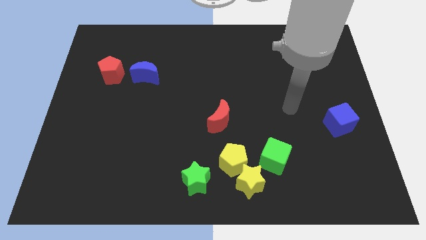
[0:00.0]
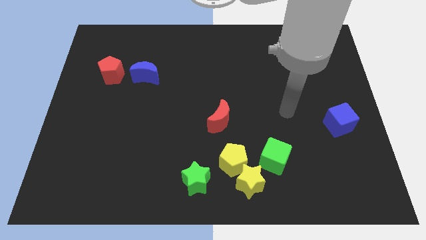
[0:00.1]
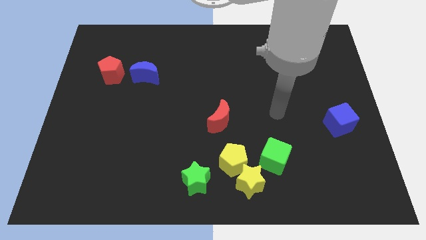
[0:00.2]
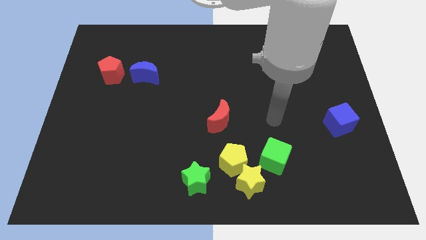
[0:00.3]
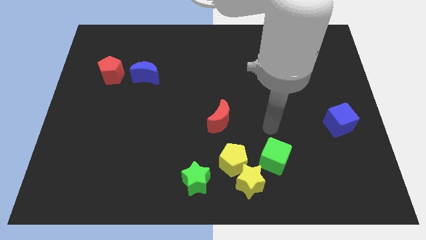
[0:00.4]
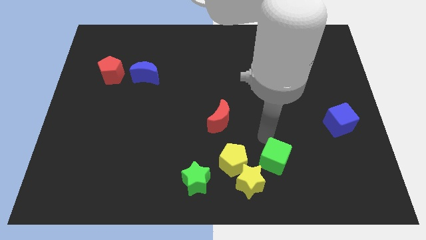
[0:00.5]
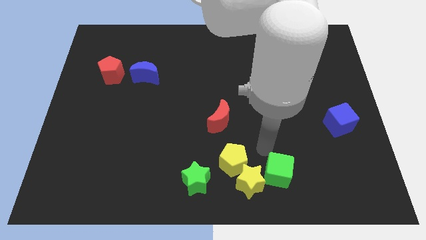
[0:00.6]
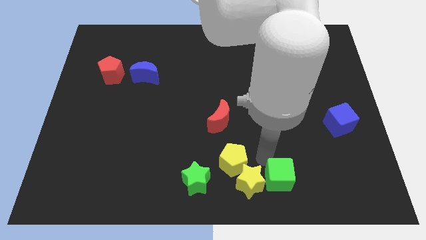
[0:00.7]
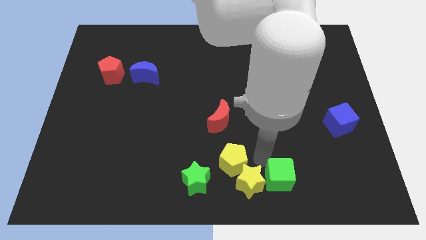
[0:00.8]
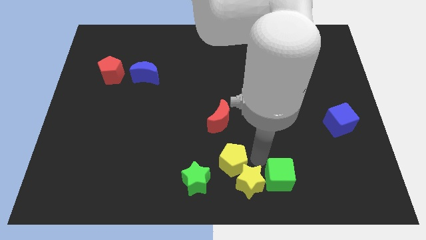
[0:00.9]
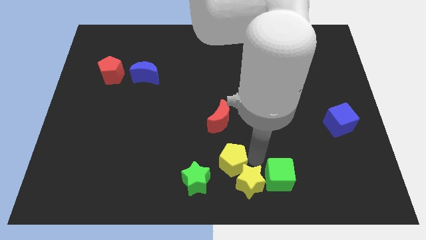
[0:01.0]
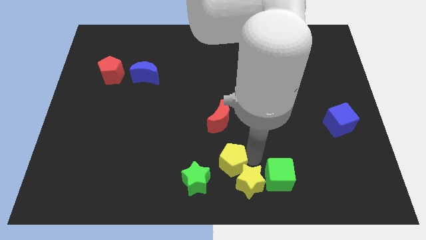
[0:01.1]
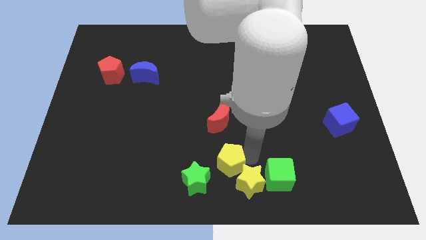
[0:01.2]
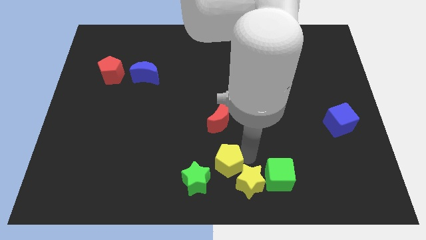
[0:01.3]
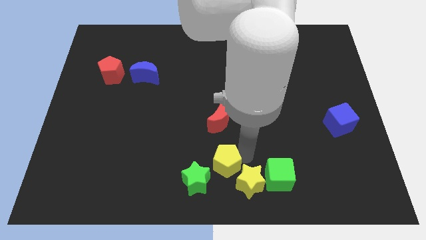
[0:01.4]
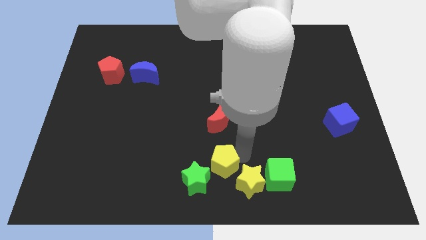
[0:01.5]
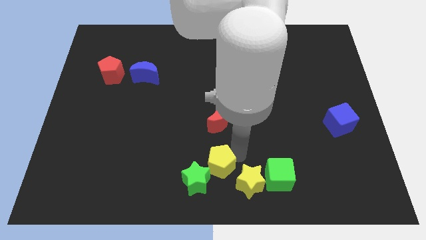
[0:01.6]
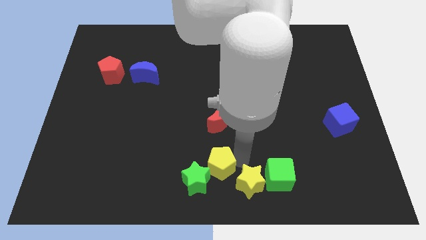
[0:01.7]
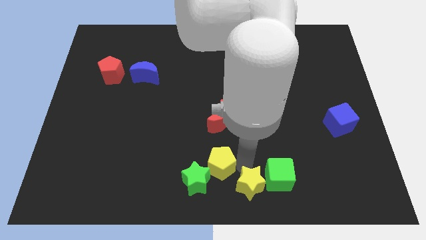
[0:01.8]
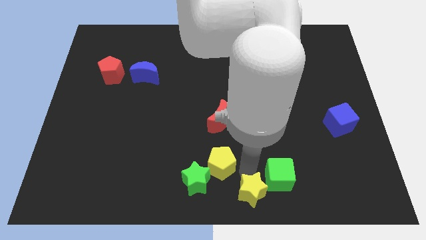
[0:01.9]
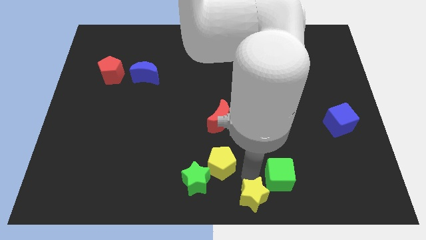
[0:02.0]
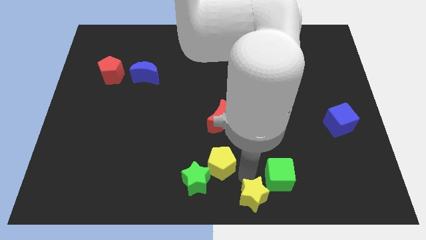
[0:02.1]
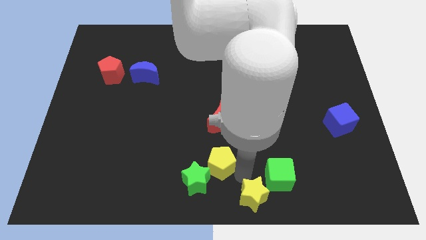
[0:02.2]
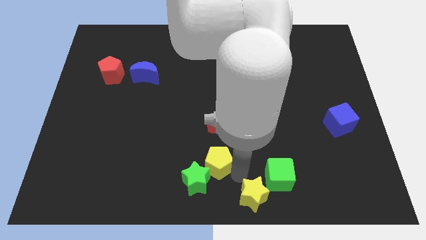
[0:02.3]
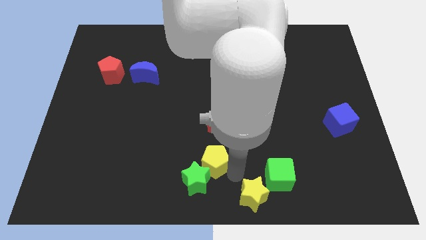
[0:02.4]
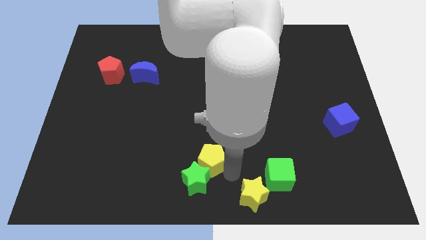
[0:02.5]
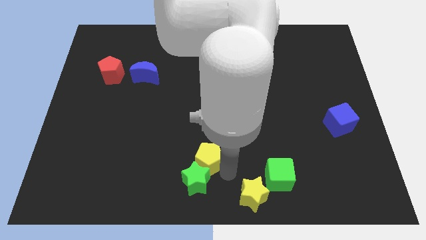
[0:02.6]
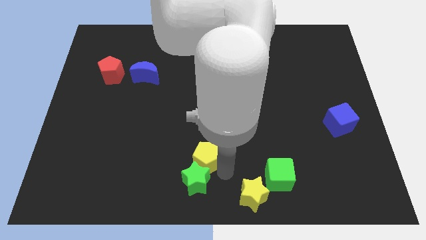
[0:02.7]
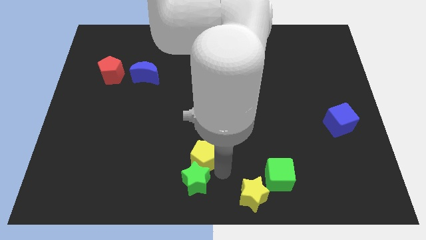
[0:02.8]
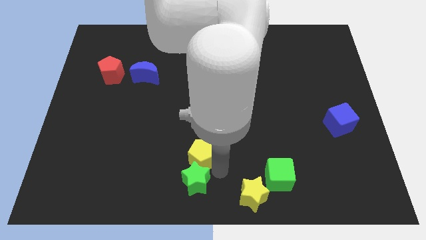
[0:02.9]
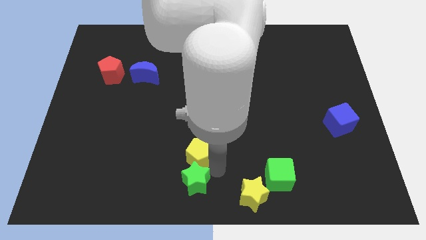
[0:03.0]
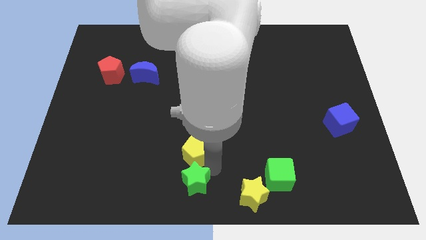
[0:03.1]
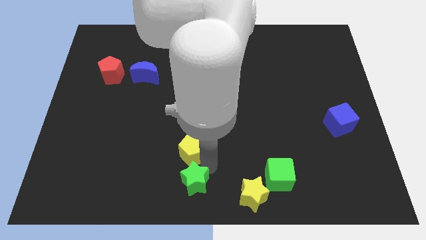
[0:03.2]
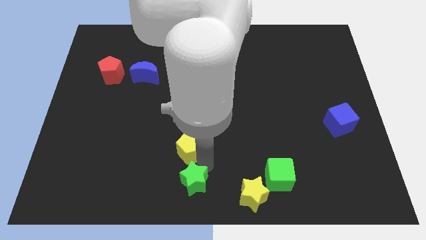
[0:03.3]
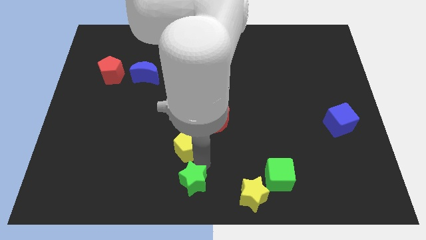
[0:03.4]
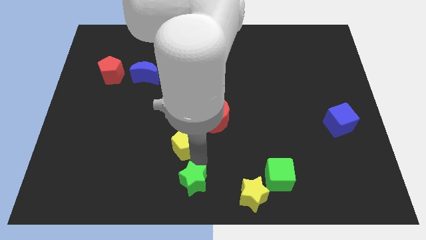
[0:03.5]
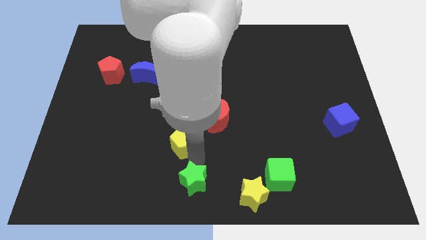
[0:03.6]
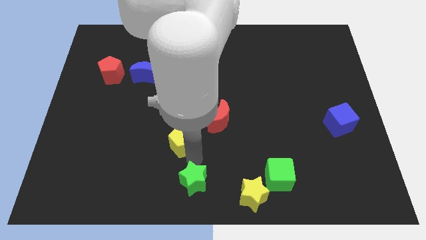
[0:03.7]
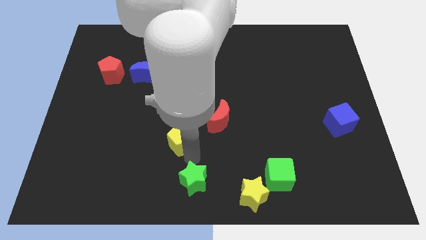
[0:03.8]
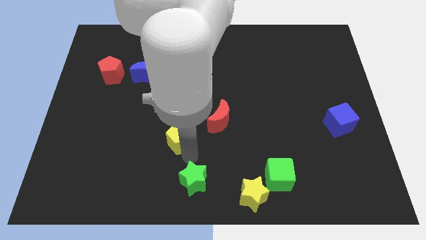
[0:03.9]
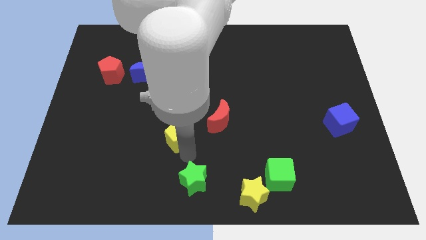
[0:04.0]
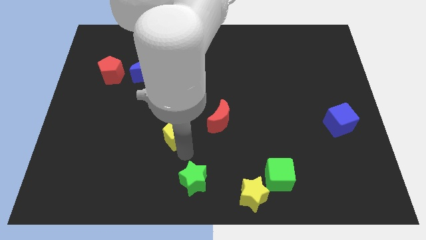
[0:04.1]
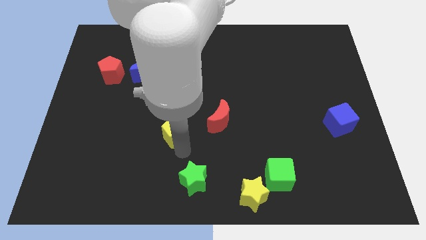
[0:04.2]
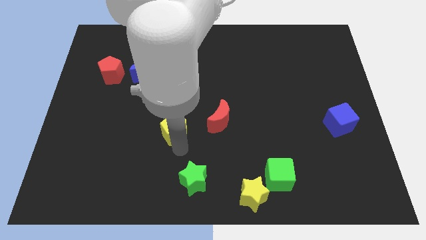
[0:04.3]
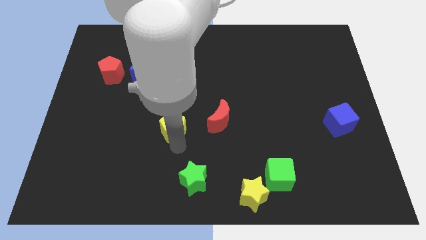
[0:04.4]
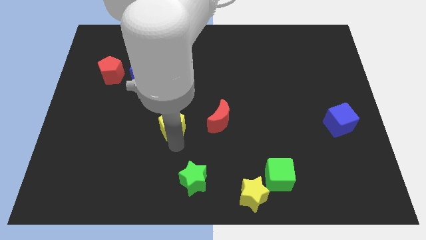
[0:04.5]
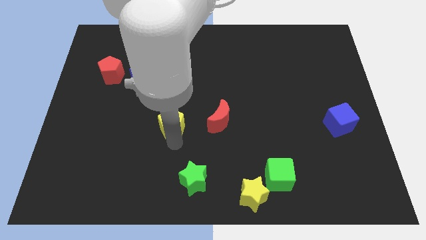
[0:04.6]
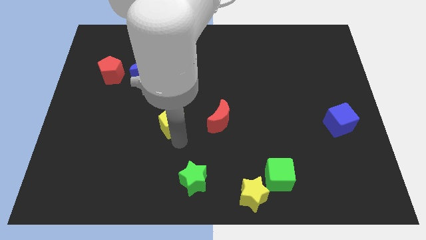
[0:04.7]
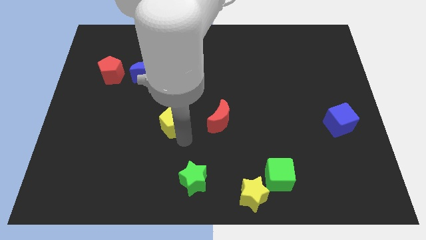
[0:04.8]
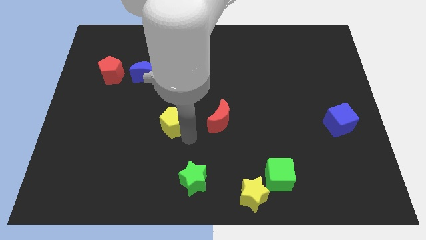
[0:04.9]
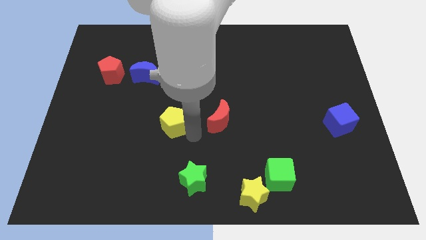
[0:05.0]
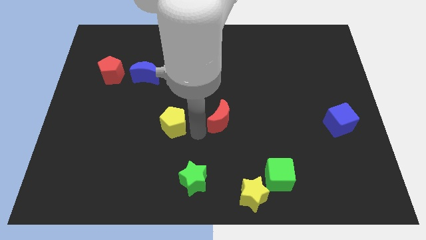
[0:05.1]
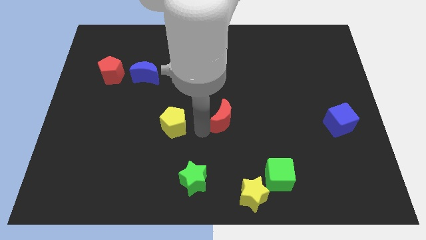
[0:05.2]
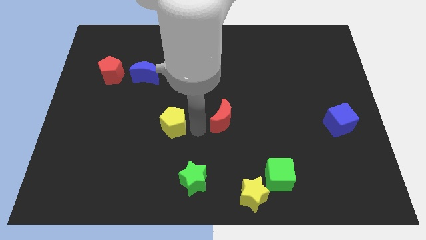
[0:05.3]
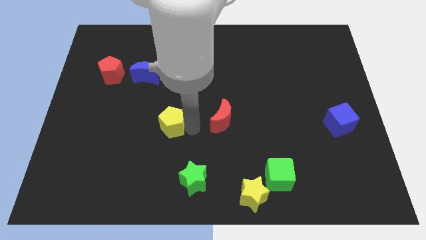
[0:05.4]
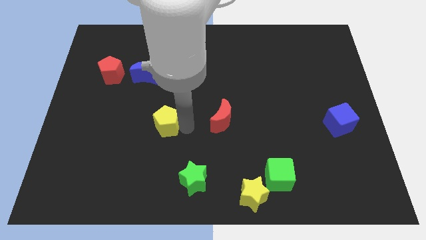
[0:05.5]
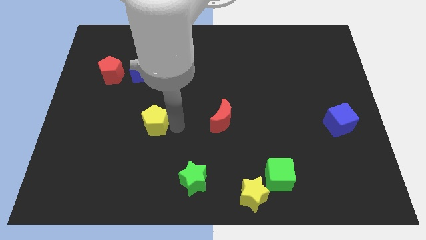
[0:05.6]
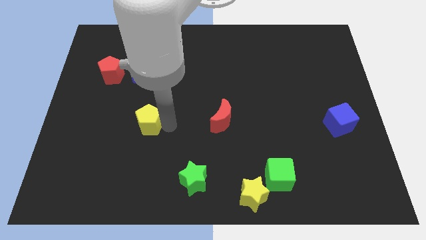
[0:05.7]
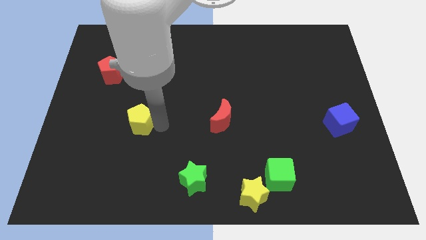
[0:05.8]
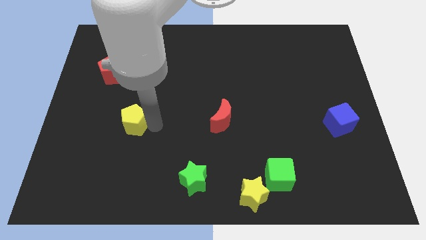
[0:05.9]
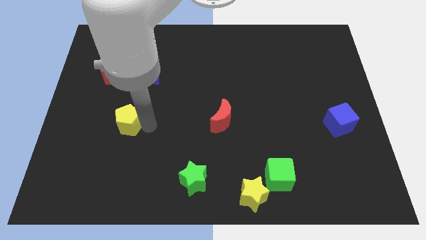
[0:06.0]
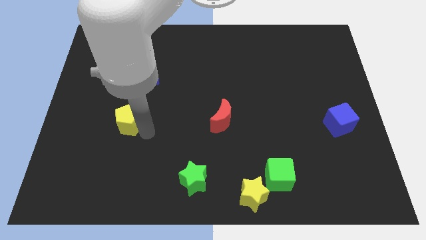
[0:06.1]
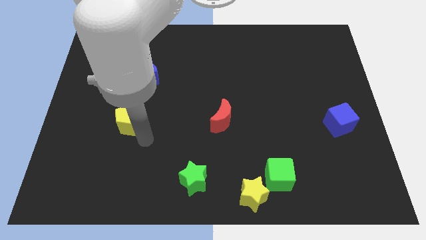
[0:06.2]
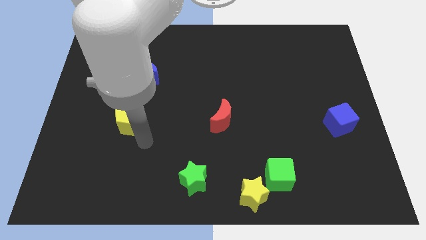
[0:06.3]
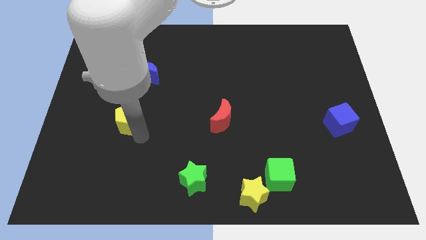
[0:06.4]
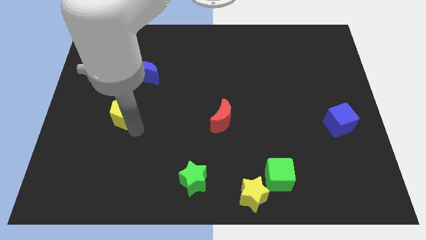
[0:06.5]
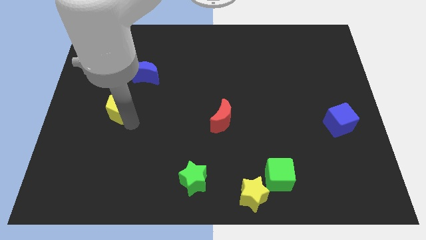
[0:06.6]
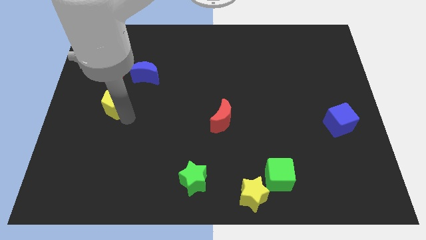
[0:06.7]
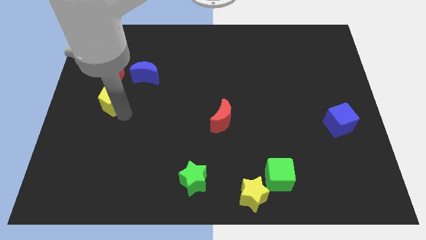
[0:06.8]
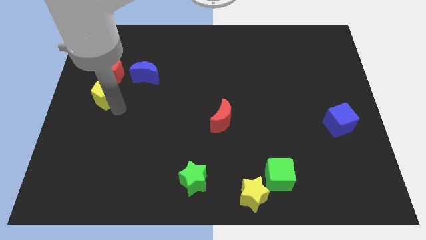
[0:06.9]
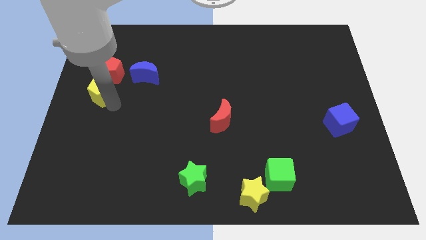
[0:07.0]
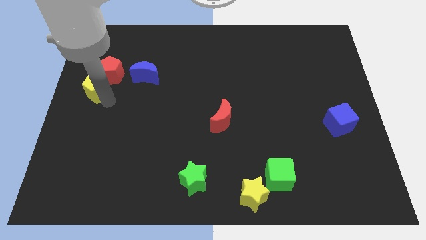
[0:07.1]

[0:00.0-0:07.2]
move the yellow pentagon to the left of the blue moon

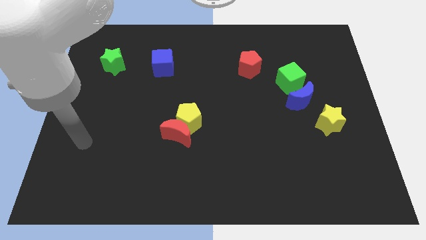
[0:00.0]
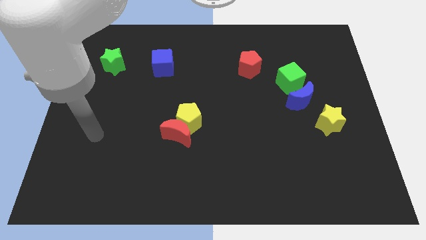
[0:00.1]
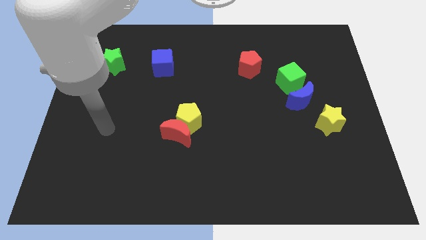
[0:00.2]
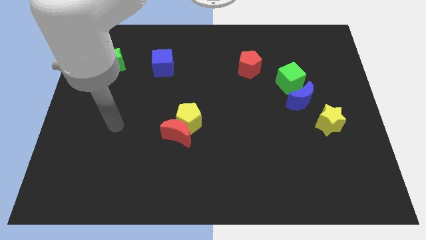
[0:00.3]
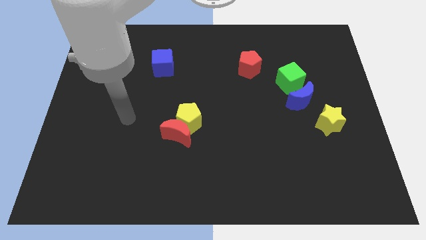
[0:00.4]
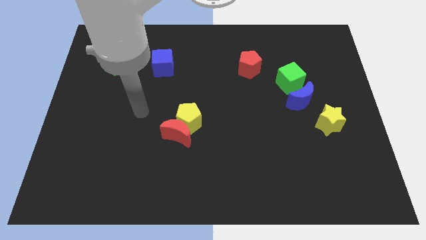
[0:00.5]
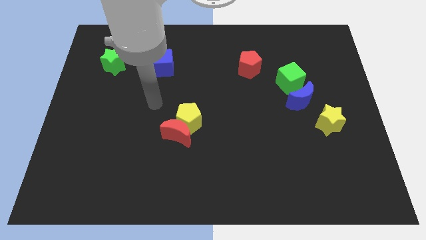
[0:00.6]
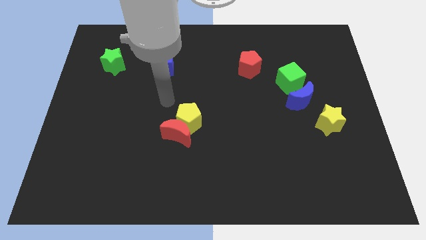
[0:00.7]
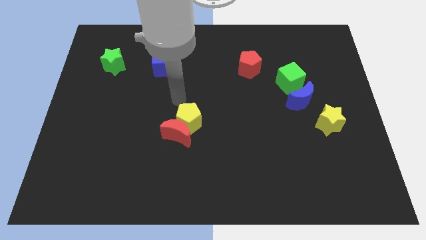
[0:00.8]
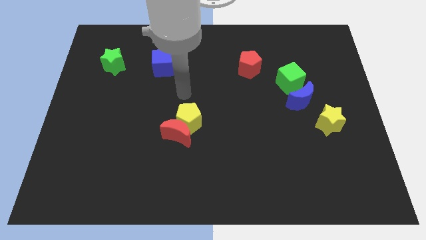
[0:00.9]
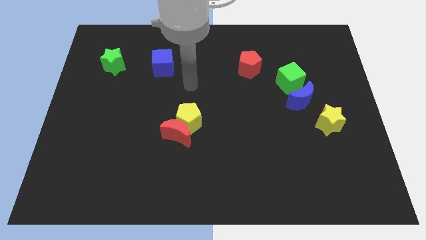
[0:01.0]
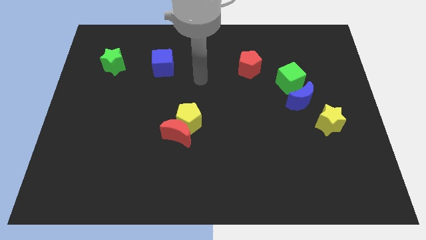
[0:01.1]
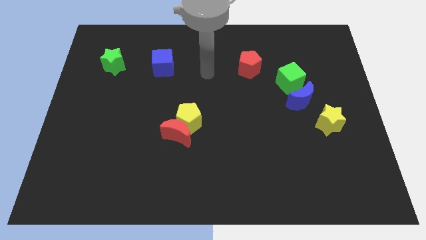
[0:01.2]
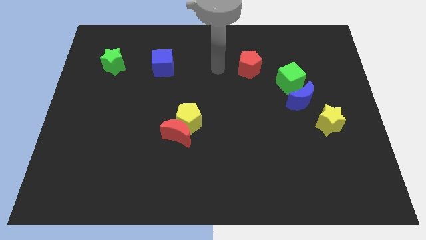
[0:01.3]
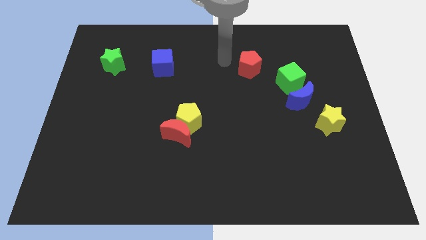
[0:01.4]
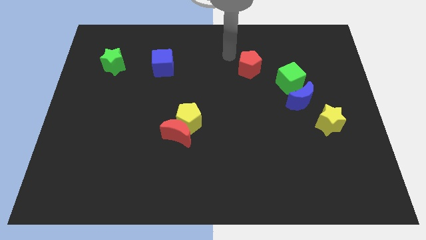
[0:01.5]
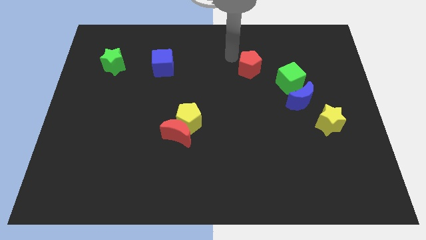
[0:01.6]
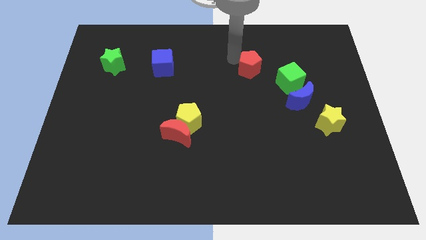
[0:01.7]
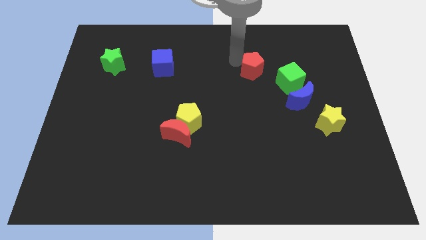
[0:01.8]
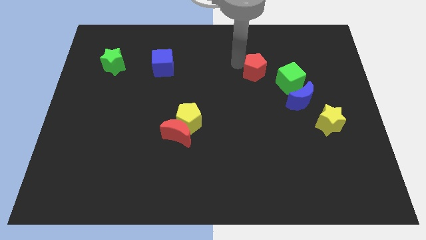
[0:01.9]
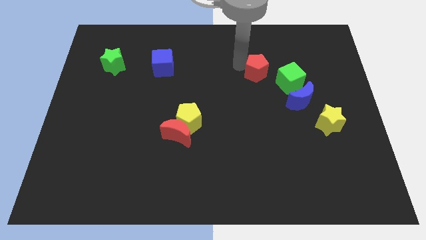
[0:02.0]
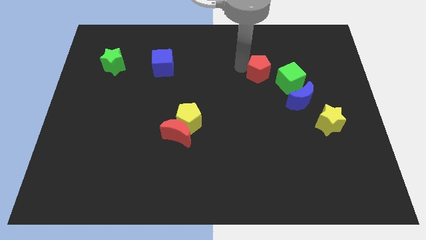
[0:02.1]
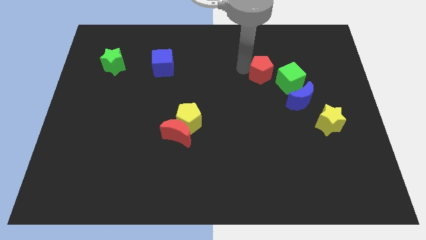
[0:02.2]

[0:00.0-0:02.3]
slide the red pentagon to the top left of the blue moon
